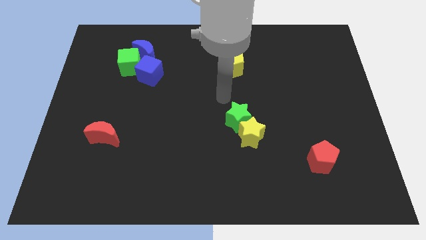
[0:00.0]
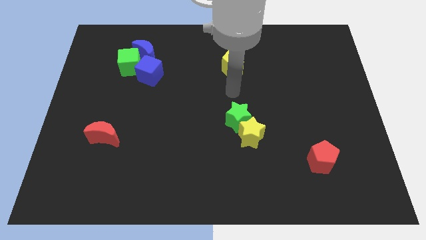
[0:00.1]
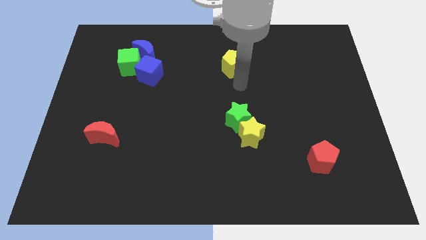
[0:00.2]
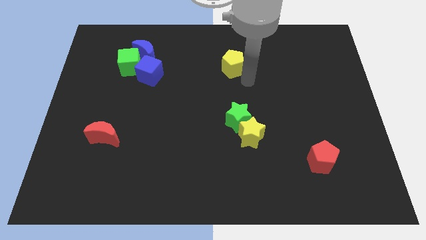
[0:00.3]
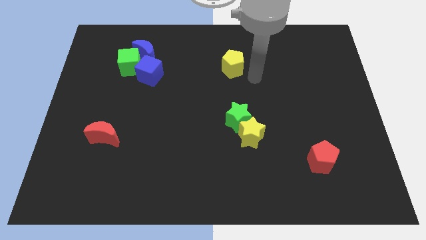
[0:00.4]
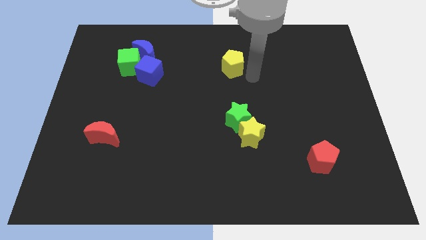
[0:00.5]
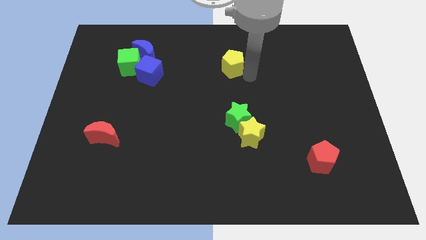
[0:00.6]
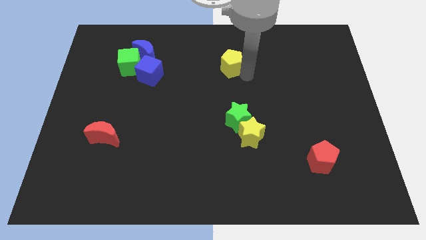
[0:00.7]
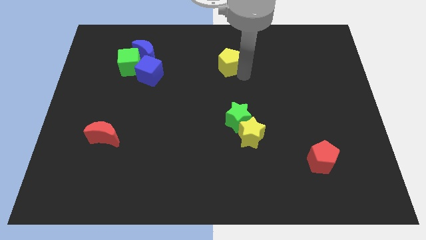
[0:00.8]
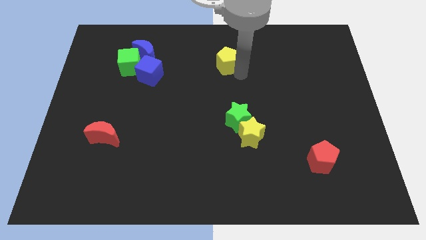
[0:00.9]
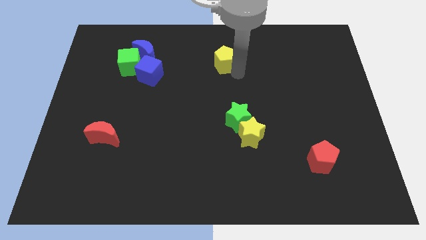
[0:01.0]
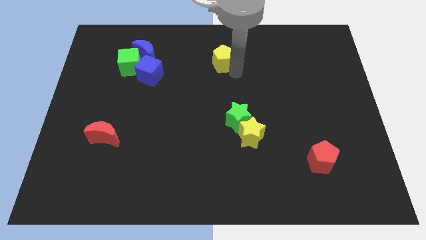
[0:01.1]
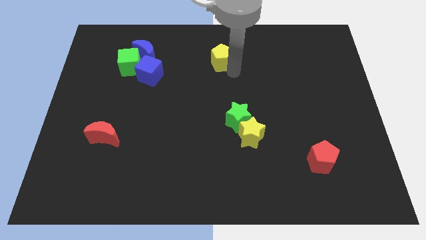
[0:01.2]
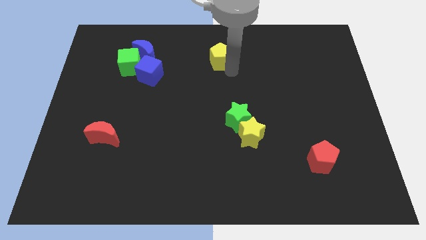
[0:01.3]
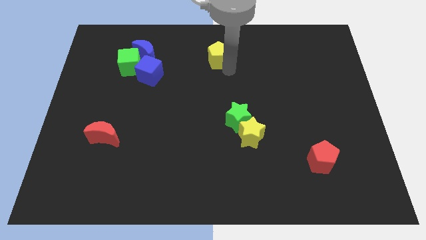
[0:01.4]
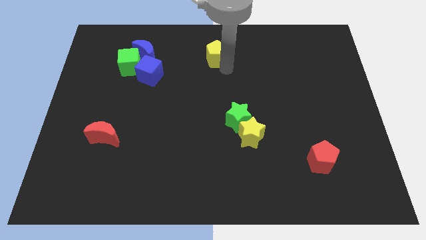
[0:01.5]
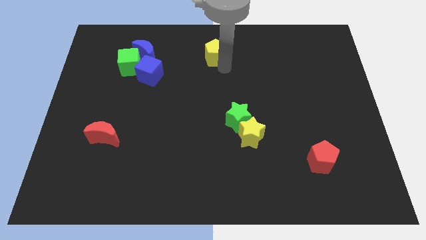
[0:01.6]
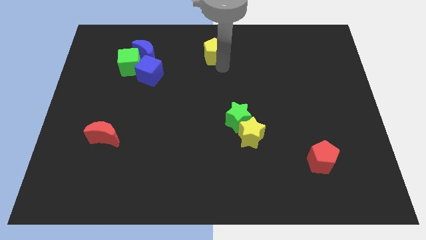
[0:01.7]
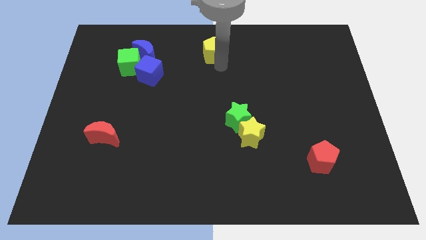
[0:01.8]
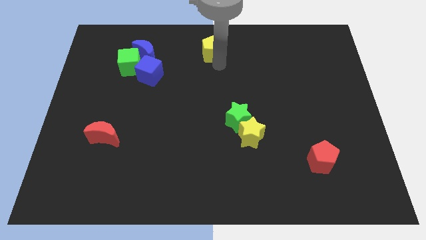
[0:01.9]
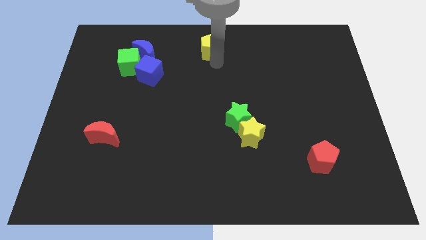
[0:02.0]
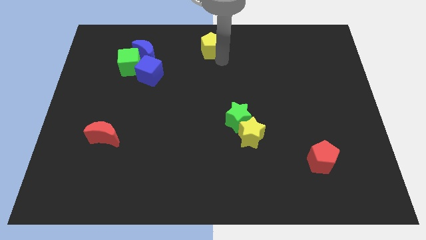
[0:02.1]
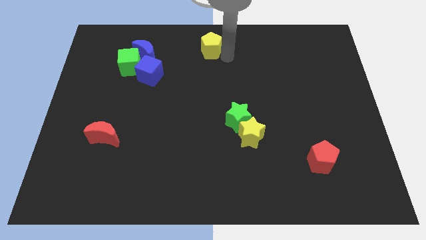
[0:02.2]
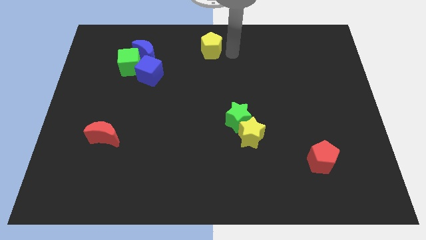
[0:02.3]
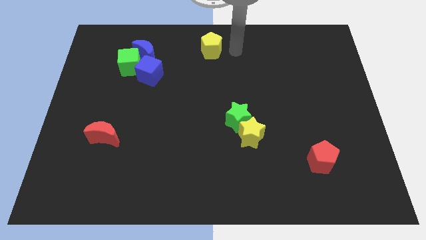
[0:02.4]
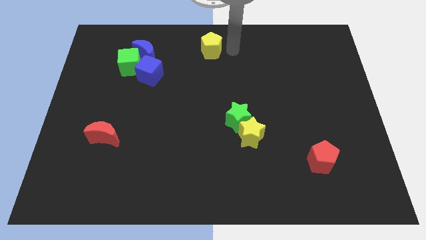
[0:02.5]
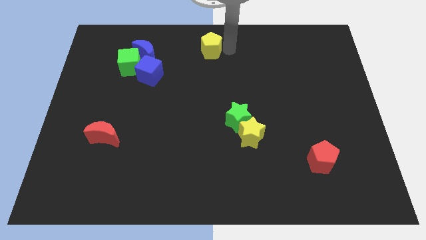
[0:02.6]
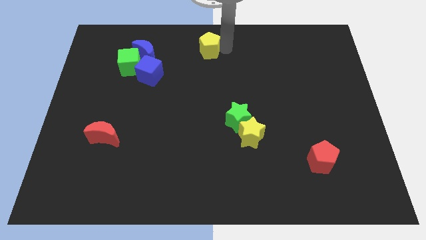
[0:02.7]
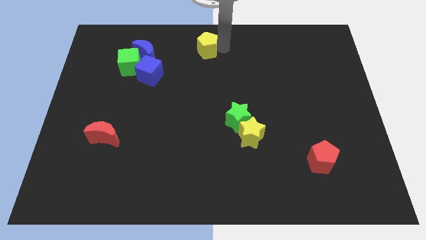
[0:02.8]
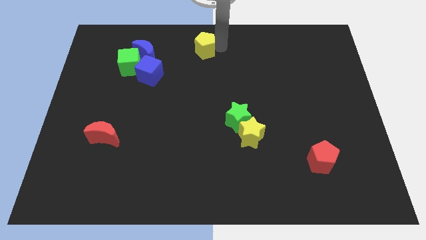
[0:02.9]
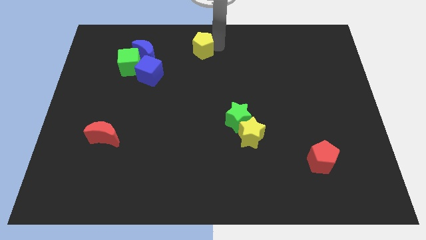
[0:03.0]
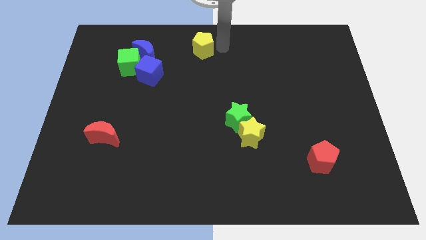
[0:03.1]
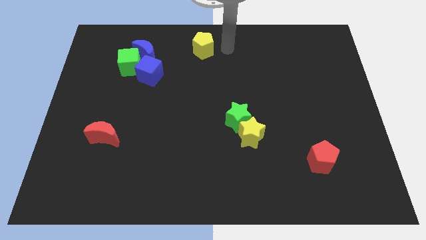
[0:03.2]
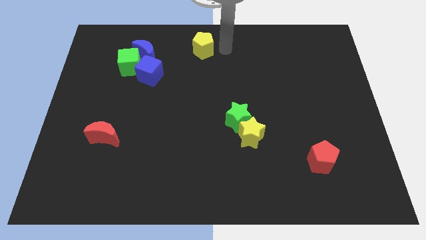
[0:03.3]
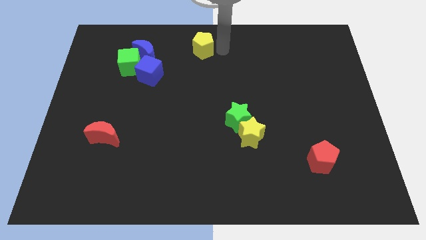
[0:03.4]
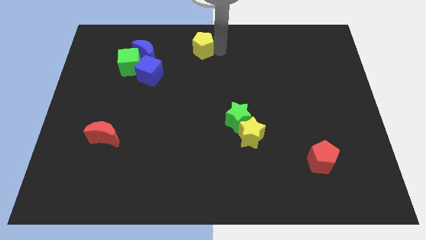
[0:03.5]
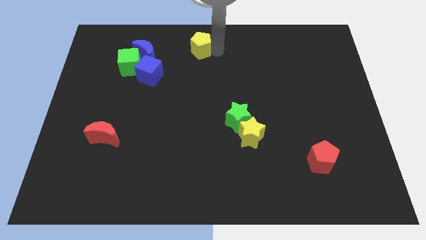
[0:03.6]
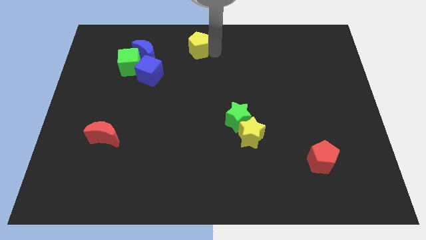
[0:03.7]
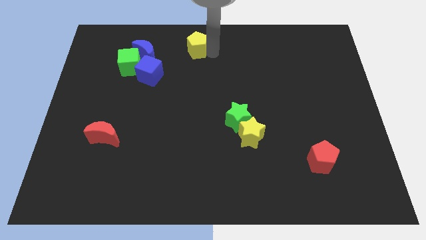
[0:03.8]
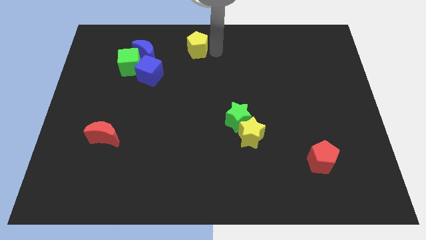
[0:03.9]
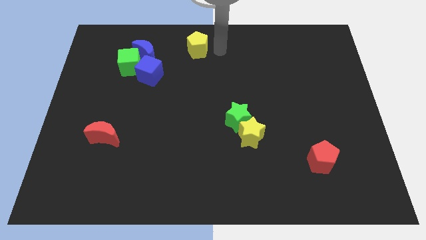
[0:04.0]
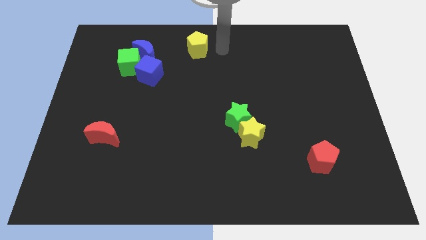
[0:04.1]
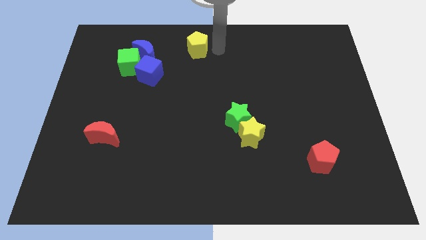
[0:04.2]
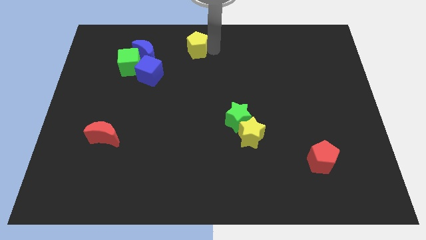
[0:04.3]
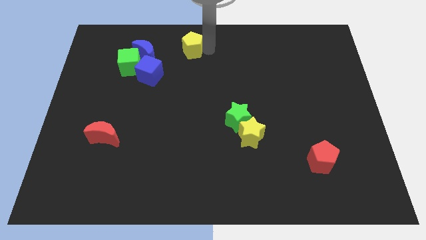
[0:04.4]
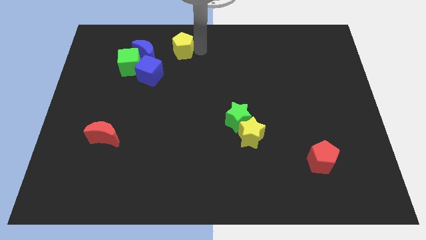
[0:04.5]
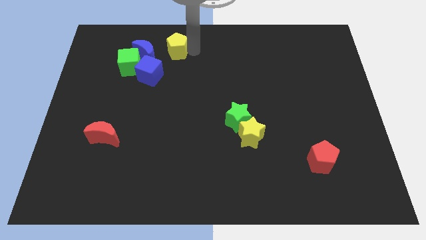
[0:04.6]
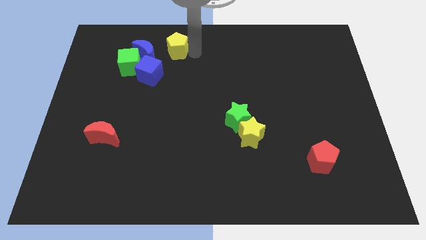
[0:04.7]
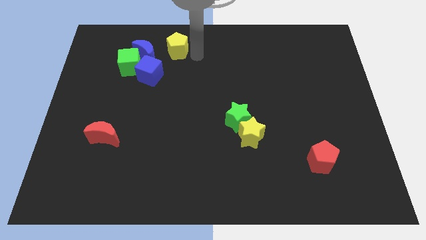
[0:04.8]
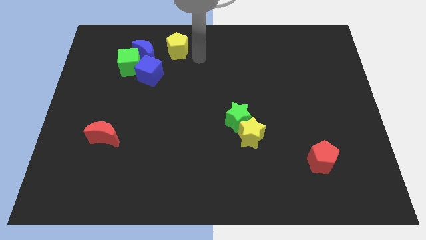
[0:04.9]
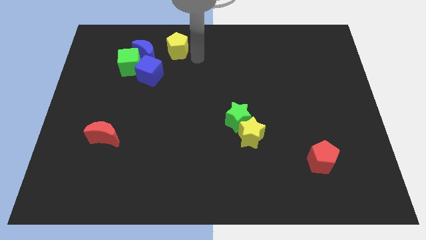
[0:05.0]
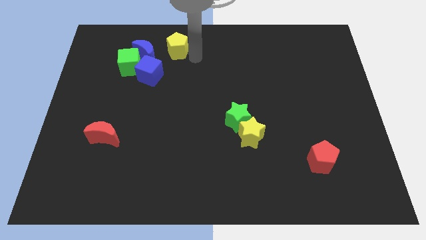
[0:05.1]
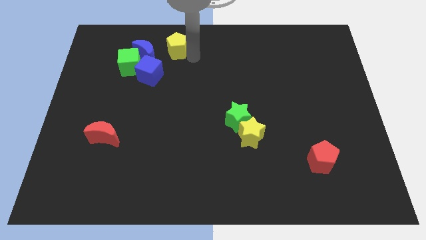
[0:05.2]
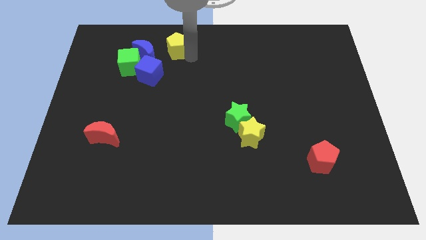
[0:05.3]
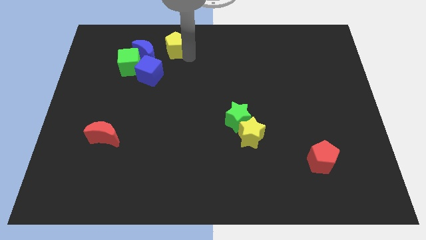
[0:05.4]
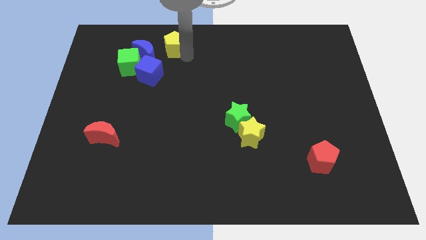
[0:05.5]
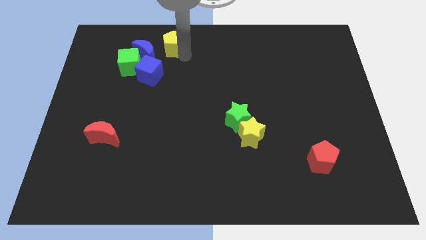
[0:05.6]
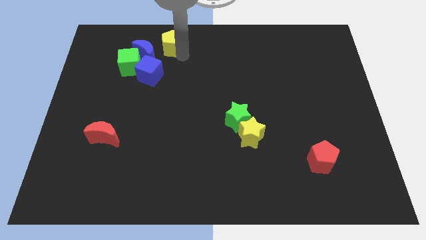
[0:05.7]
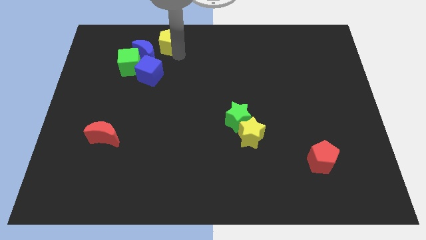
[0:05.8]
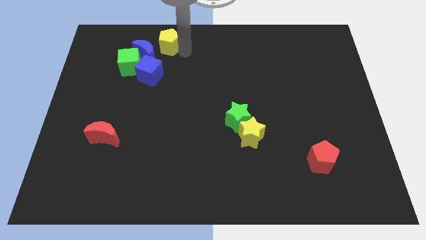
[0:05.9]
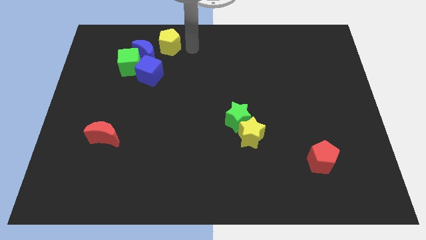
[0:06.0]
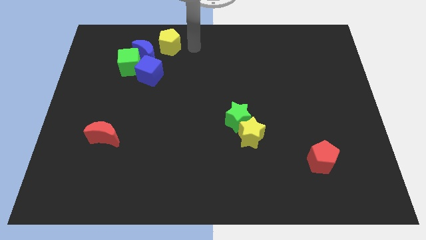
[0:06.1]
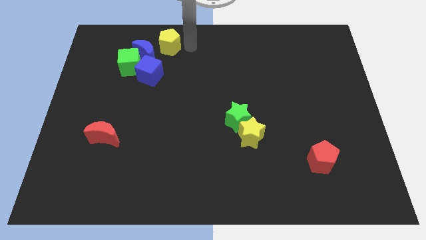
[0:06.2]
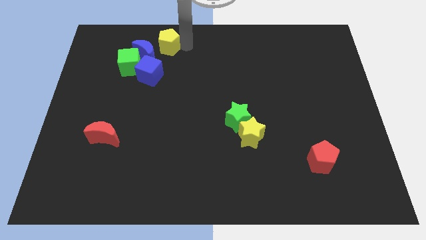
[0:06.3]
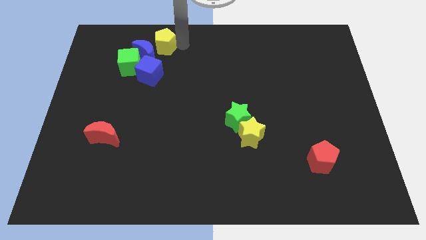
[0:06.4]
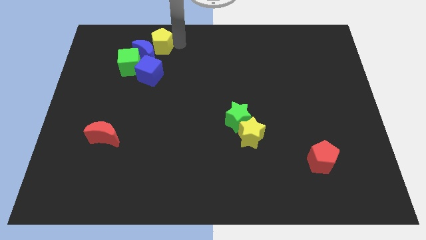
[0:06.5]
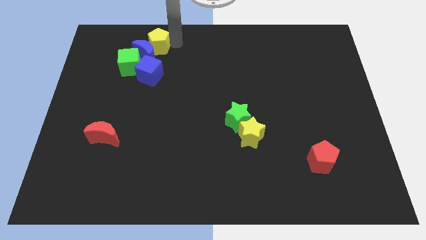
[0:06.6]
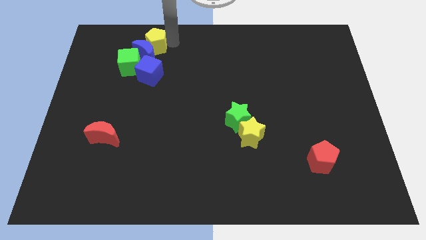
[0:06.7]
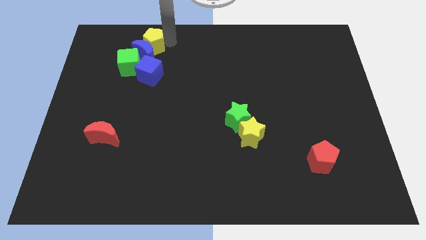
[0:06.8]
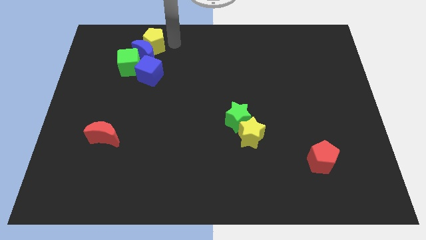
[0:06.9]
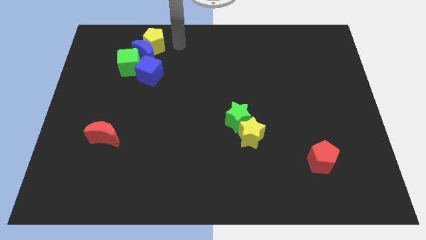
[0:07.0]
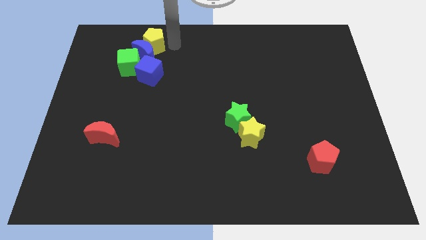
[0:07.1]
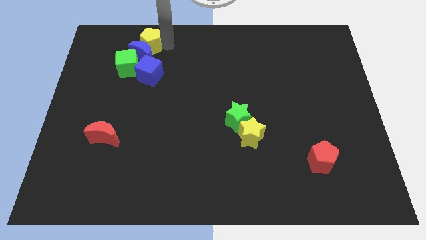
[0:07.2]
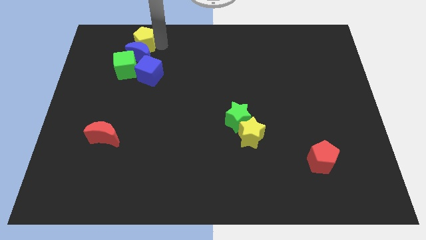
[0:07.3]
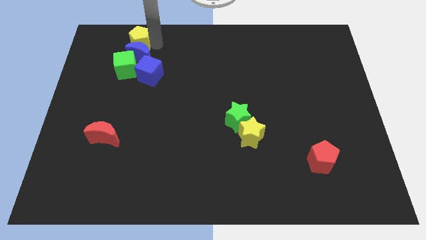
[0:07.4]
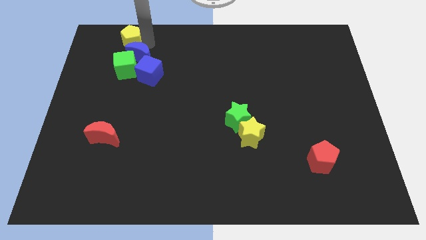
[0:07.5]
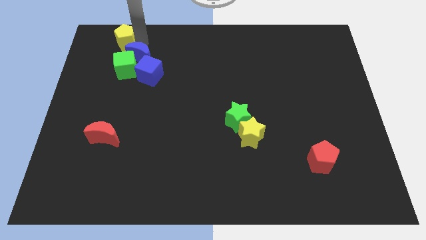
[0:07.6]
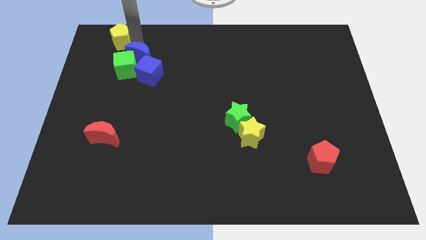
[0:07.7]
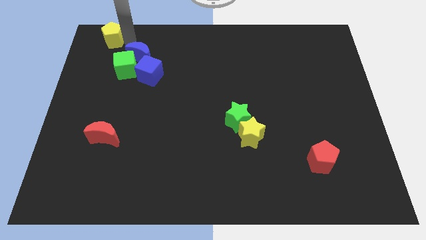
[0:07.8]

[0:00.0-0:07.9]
slide the yellow pentagon to the top left
